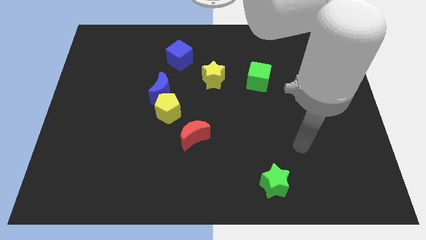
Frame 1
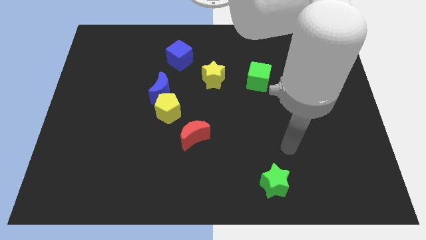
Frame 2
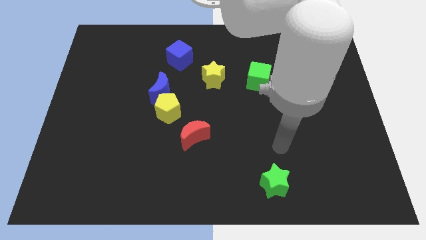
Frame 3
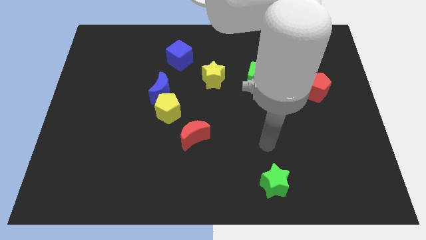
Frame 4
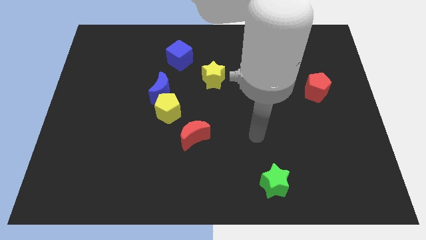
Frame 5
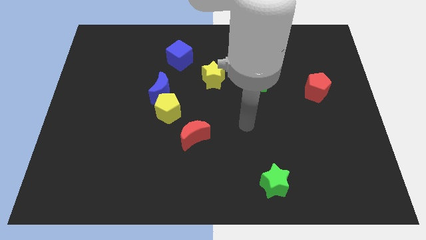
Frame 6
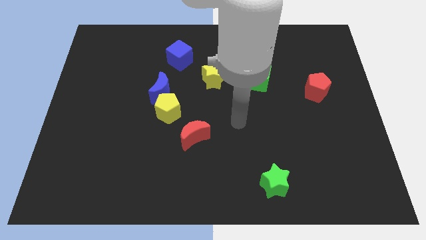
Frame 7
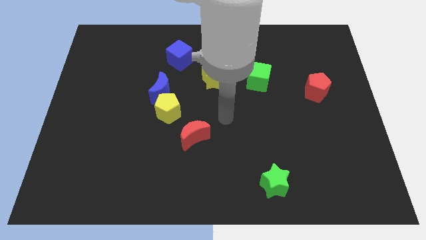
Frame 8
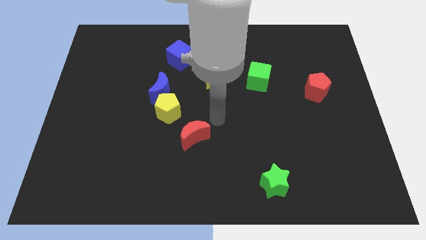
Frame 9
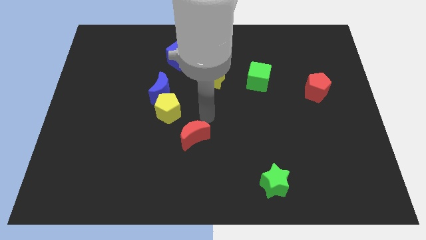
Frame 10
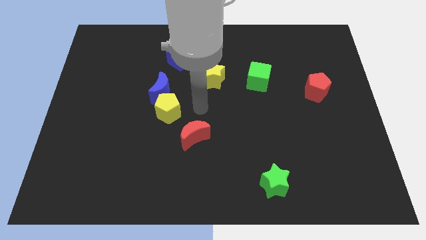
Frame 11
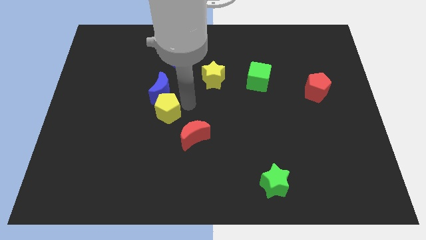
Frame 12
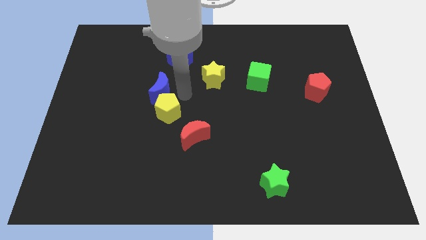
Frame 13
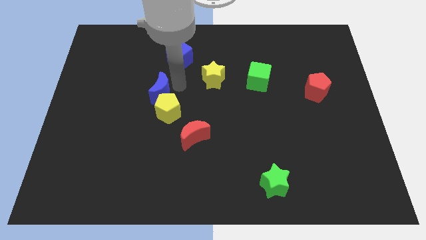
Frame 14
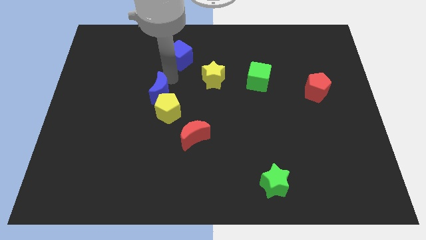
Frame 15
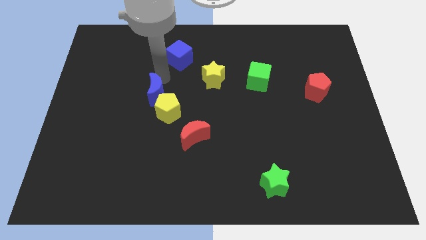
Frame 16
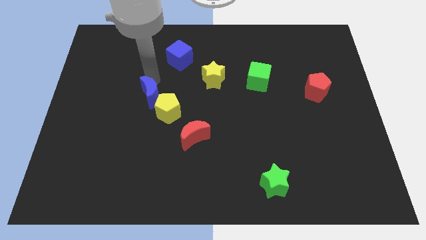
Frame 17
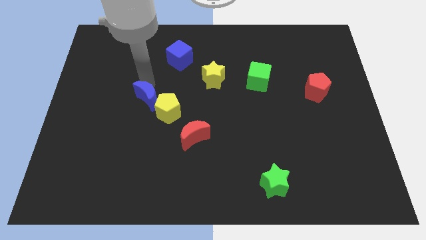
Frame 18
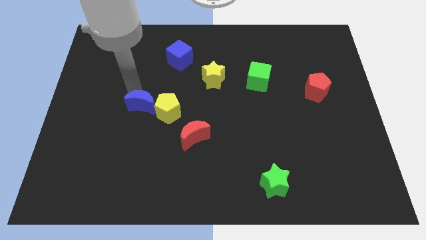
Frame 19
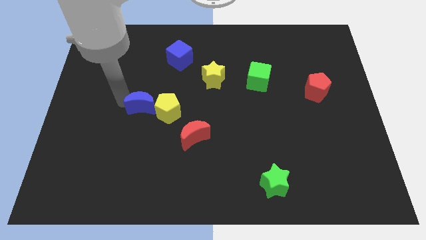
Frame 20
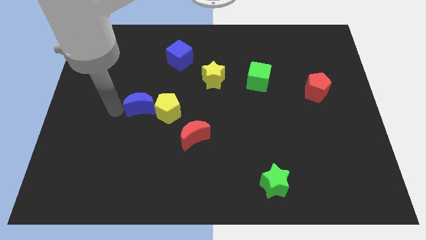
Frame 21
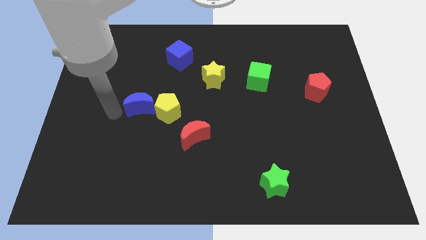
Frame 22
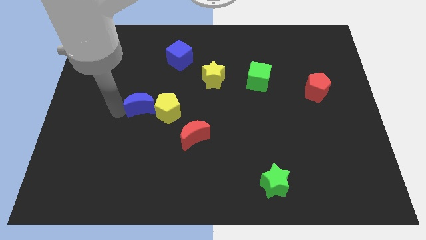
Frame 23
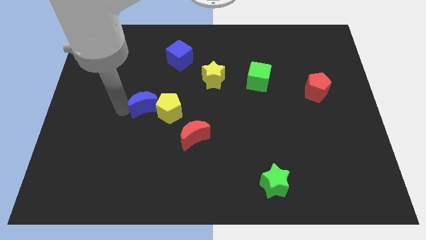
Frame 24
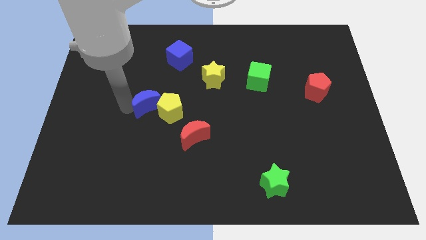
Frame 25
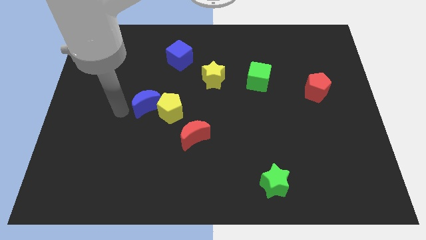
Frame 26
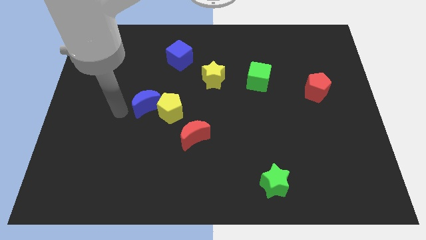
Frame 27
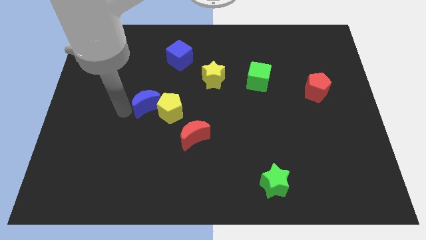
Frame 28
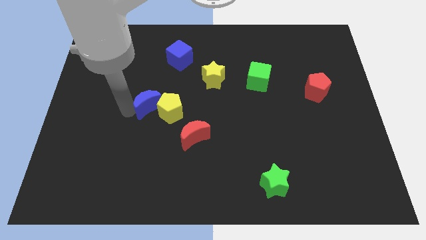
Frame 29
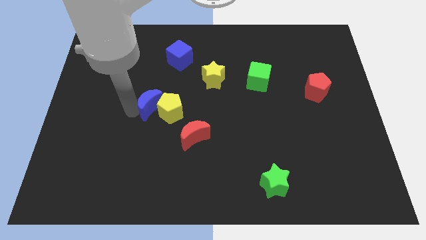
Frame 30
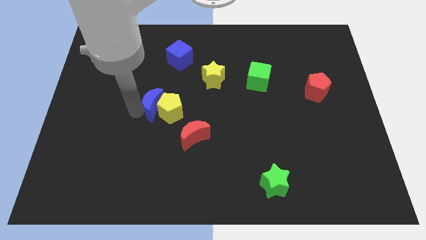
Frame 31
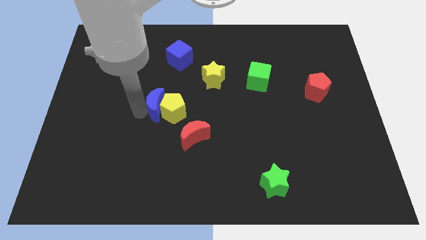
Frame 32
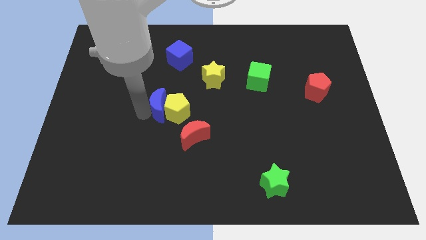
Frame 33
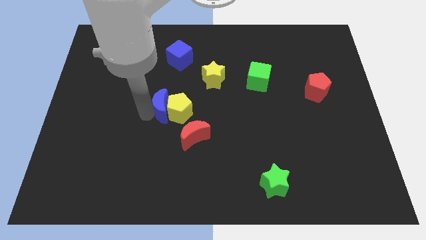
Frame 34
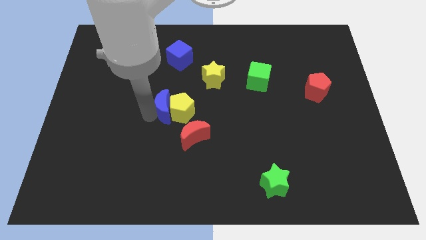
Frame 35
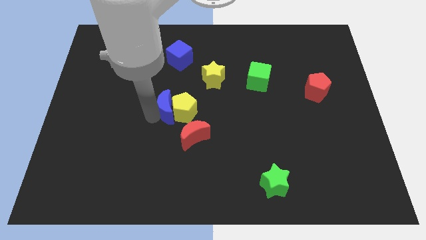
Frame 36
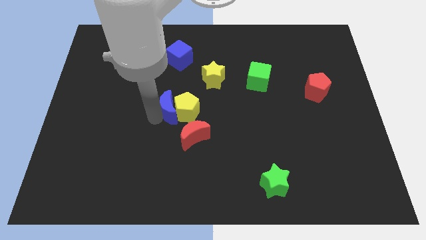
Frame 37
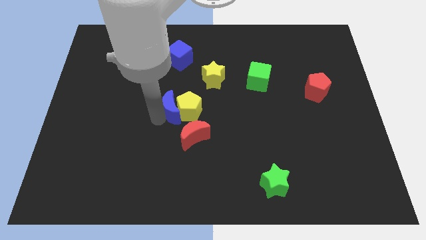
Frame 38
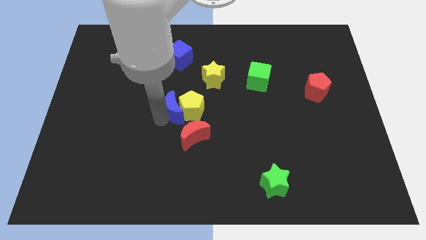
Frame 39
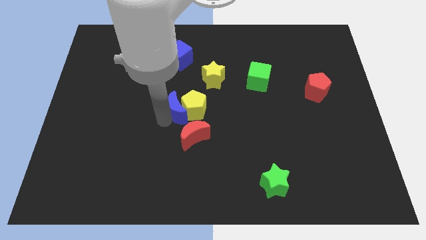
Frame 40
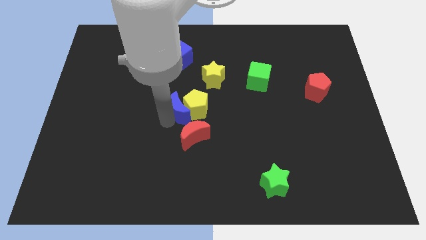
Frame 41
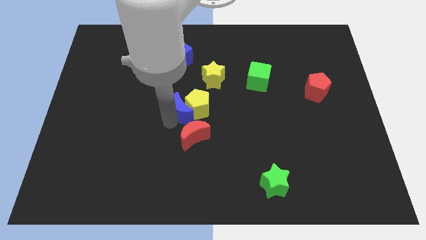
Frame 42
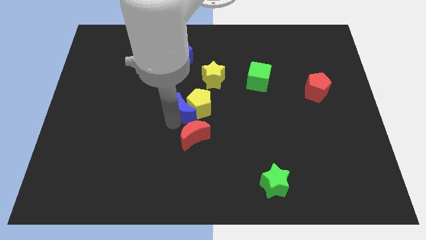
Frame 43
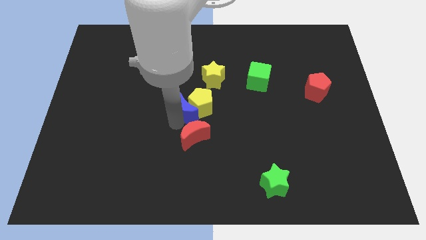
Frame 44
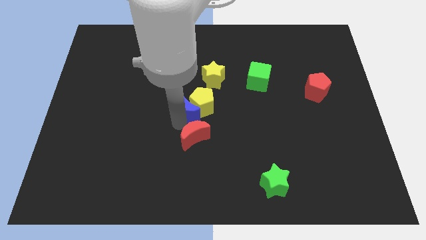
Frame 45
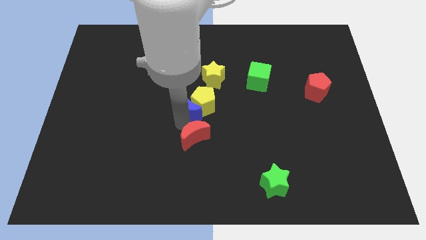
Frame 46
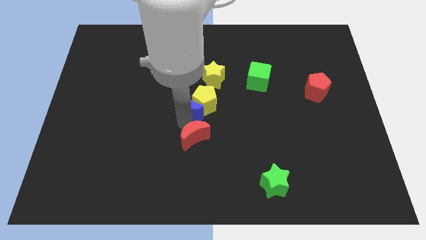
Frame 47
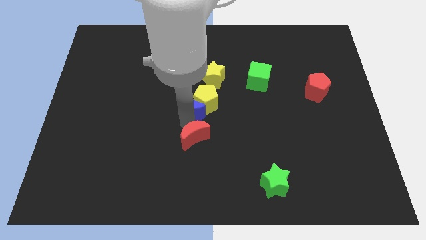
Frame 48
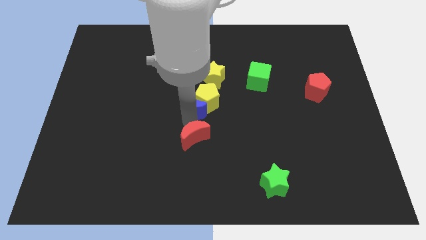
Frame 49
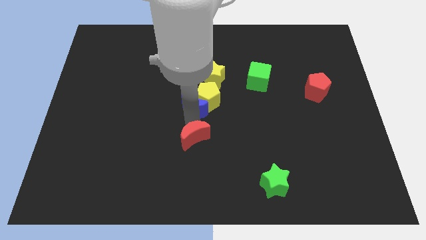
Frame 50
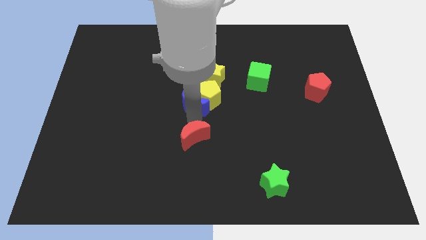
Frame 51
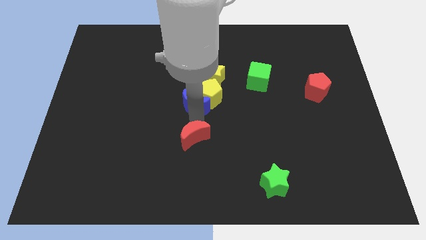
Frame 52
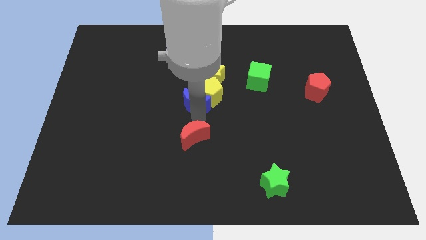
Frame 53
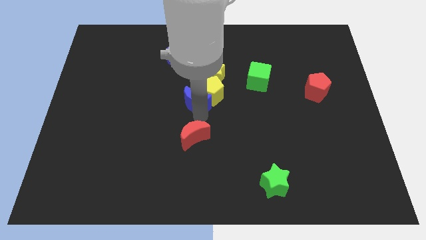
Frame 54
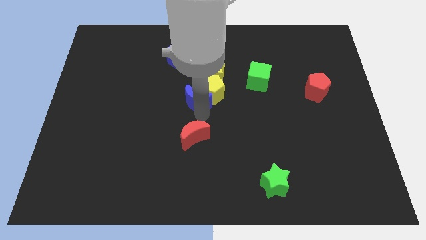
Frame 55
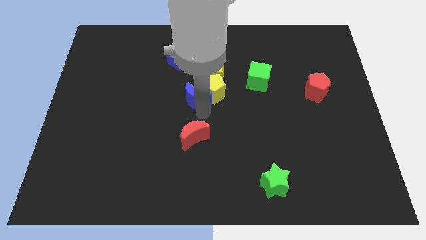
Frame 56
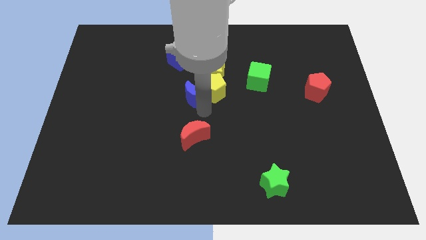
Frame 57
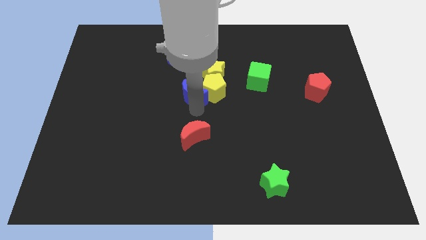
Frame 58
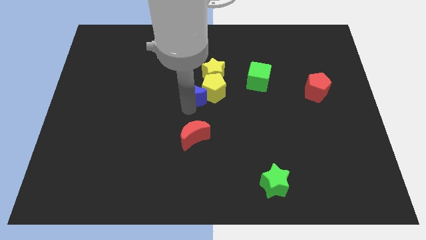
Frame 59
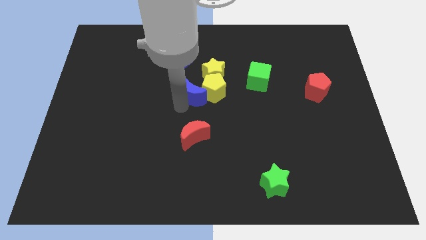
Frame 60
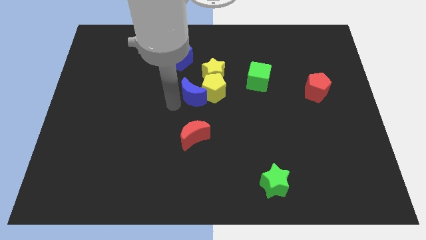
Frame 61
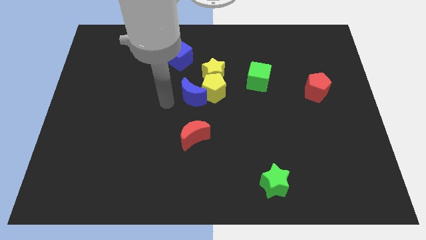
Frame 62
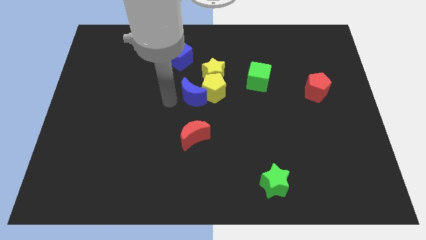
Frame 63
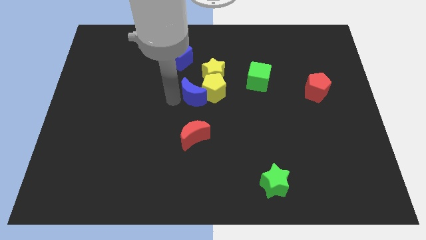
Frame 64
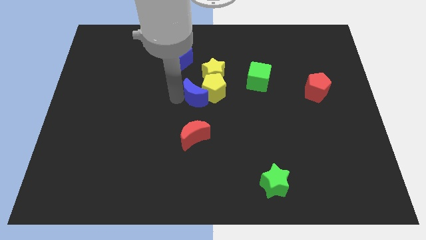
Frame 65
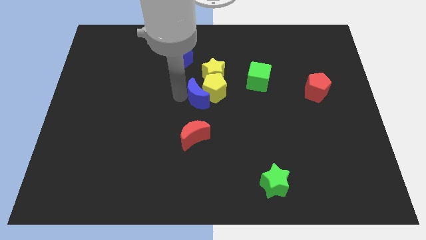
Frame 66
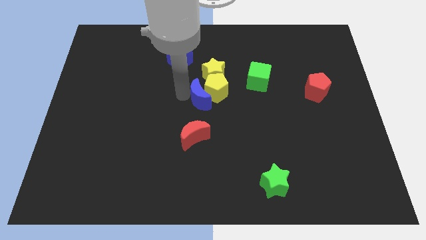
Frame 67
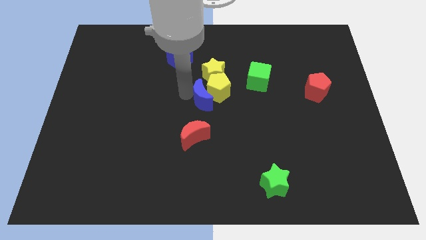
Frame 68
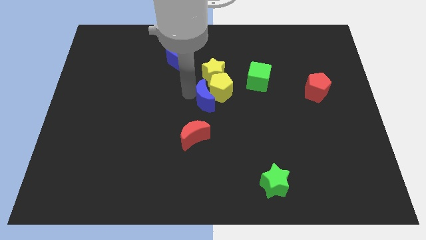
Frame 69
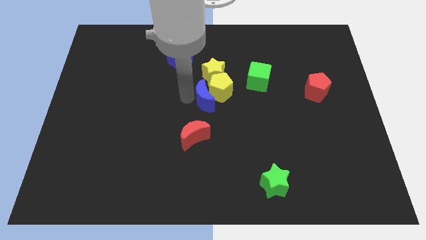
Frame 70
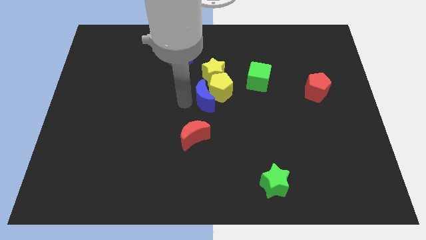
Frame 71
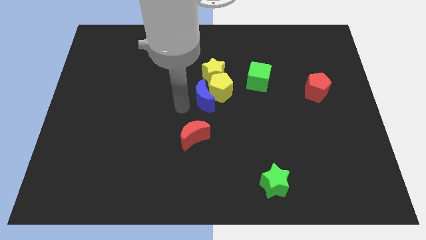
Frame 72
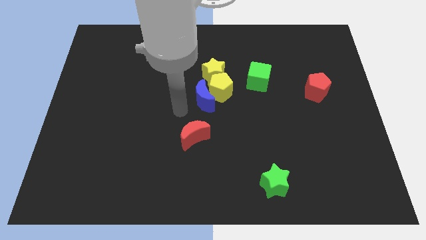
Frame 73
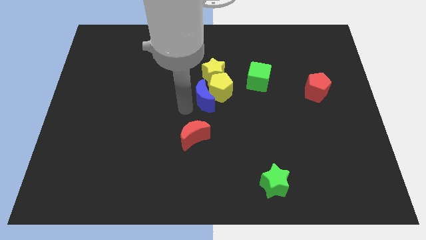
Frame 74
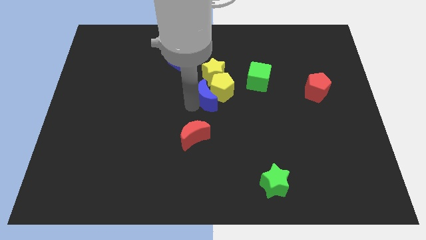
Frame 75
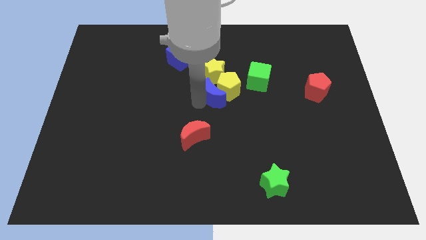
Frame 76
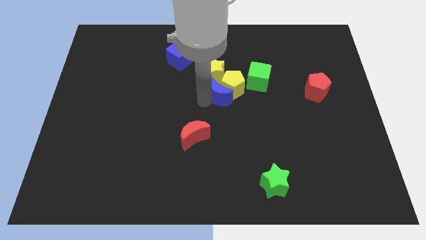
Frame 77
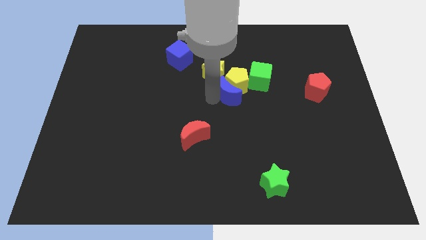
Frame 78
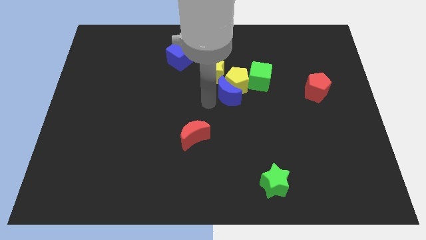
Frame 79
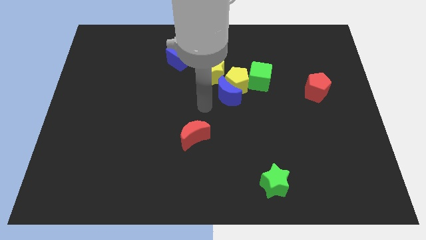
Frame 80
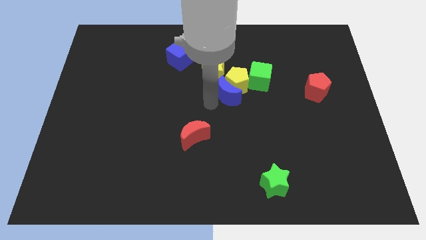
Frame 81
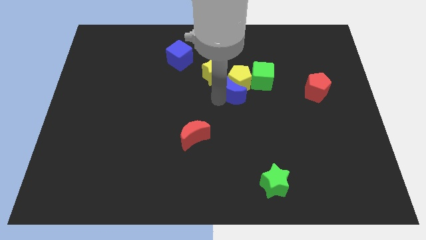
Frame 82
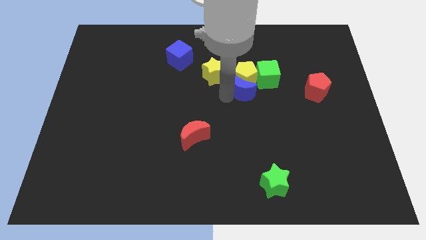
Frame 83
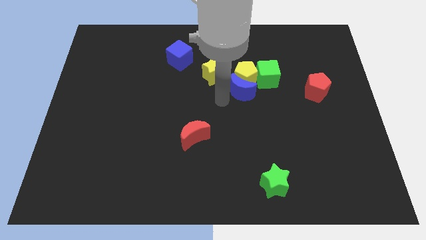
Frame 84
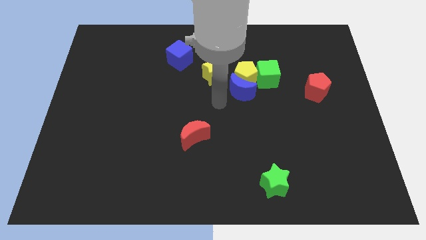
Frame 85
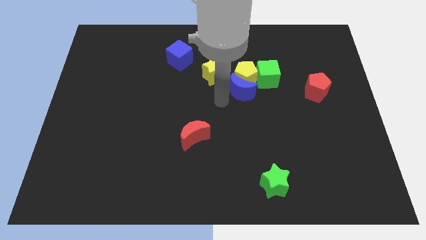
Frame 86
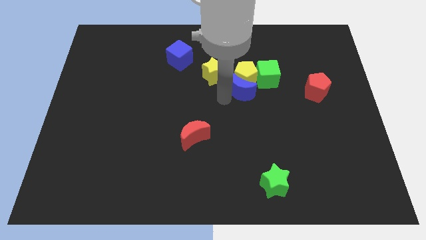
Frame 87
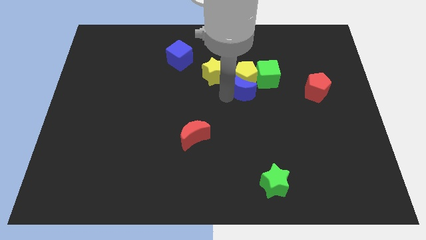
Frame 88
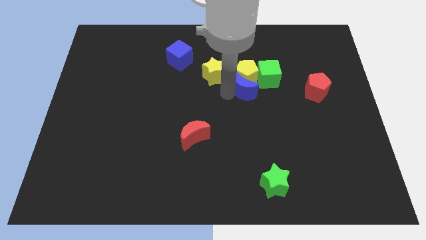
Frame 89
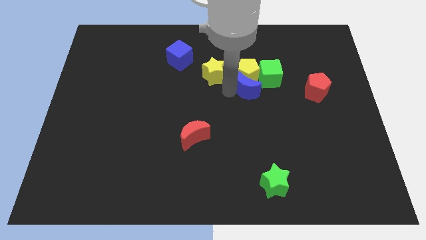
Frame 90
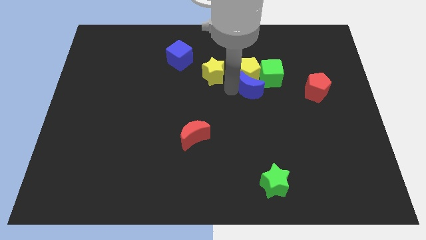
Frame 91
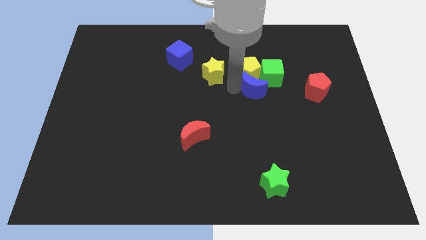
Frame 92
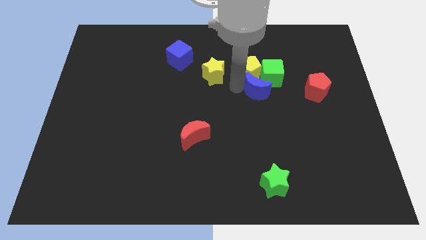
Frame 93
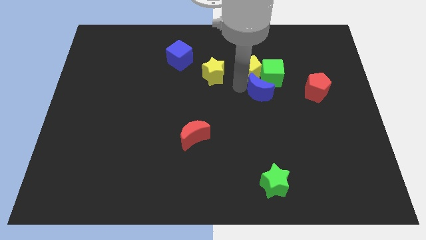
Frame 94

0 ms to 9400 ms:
slide the blue moon close to the green cube
